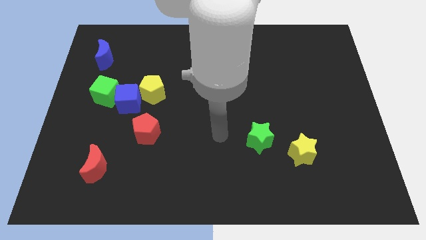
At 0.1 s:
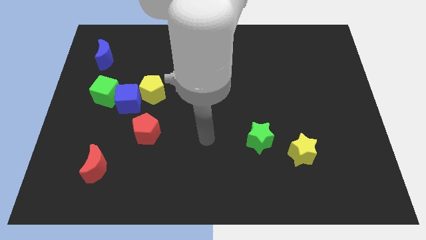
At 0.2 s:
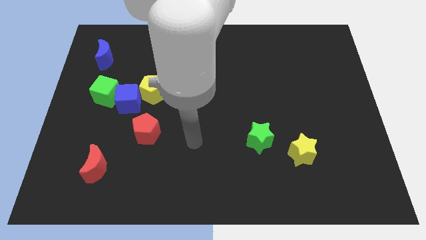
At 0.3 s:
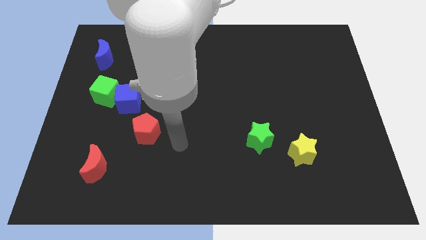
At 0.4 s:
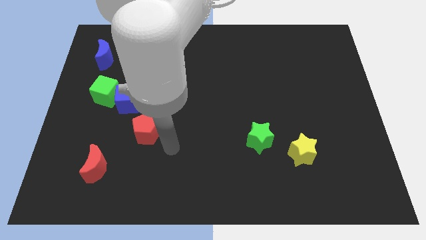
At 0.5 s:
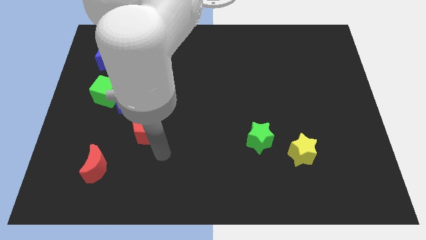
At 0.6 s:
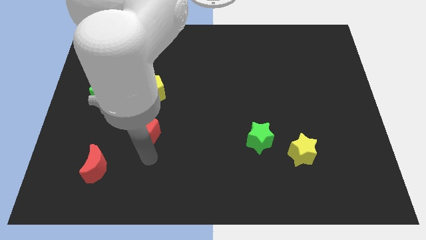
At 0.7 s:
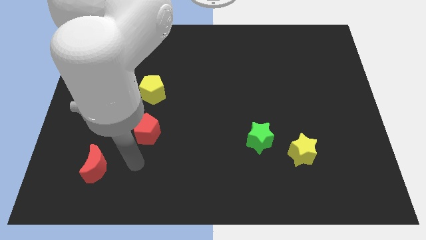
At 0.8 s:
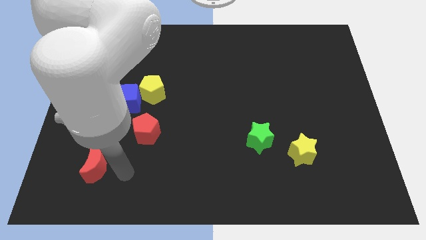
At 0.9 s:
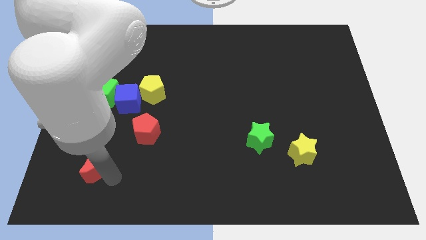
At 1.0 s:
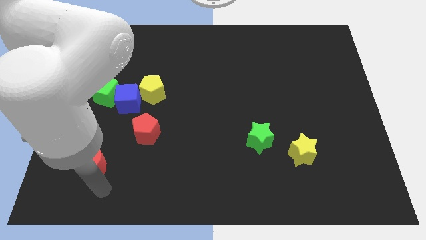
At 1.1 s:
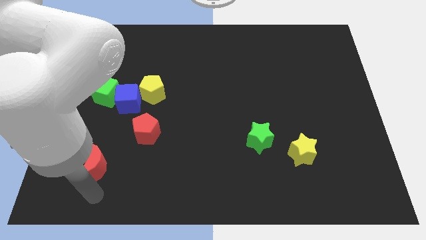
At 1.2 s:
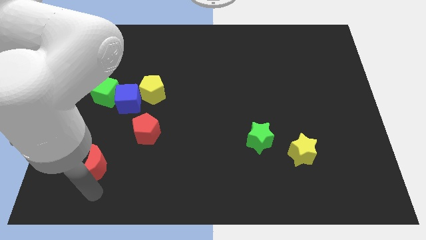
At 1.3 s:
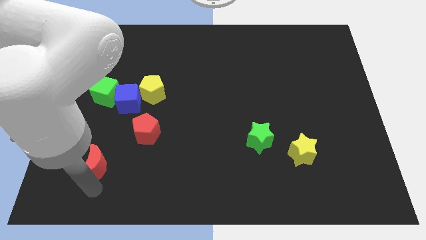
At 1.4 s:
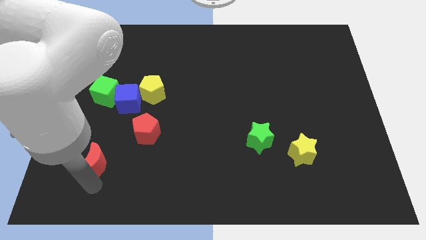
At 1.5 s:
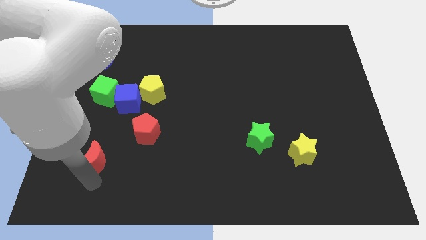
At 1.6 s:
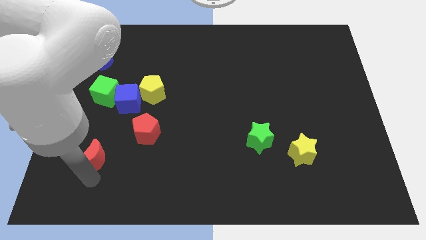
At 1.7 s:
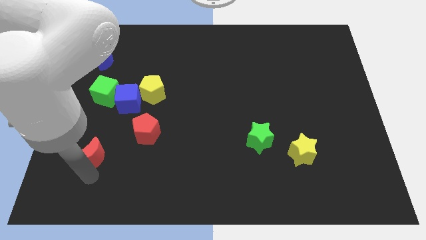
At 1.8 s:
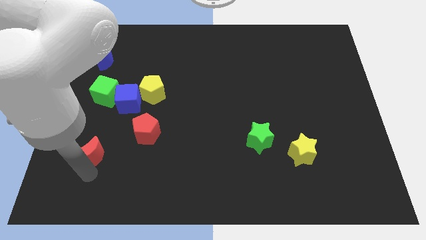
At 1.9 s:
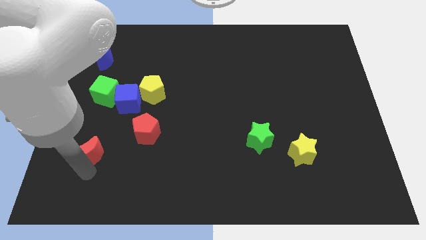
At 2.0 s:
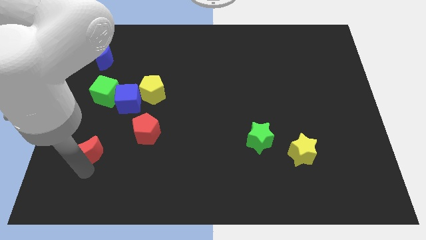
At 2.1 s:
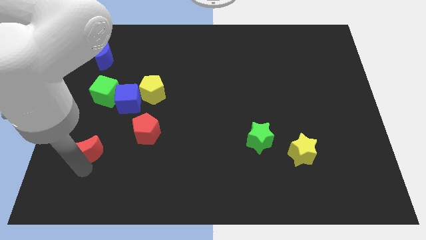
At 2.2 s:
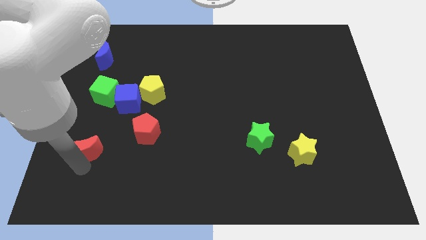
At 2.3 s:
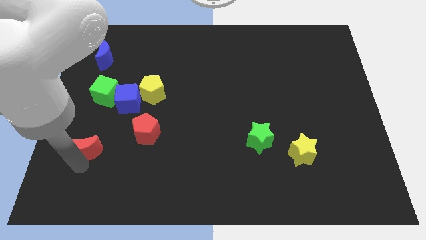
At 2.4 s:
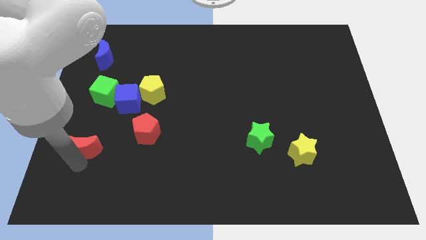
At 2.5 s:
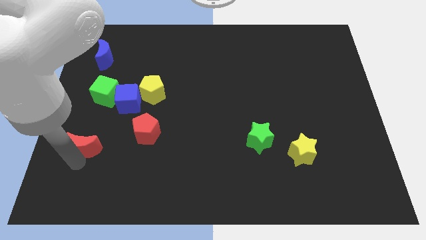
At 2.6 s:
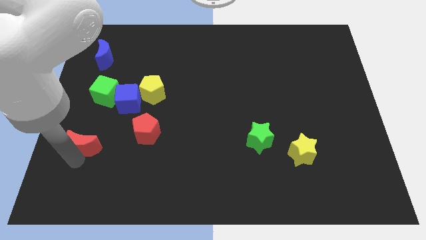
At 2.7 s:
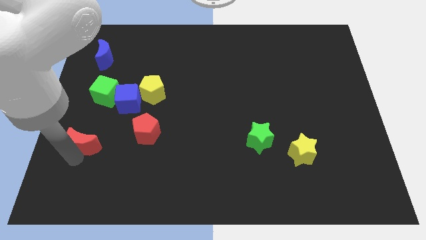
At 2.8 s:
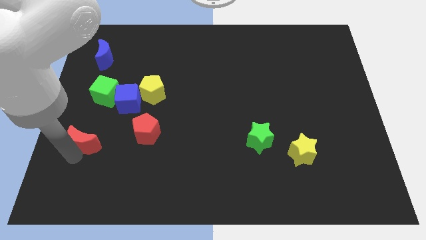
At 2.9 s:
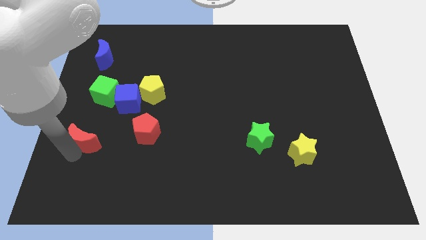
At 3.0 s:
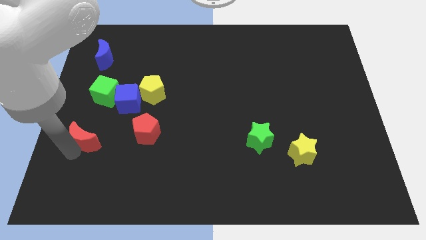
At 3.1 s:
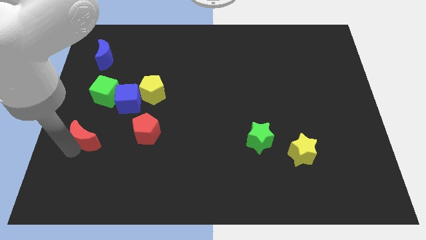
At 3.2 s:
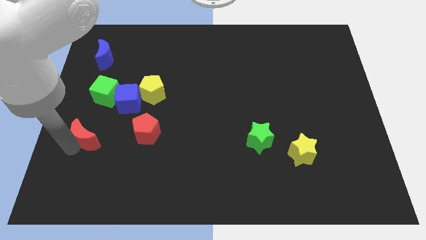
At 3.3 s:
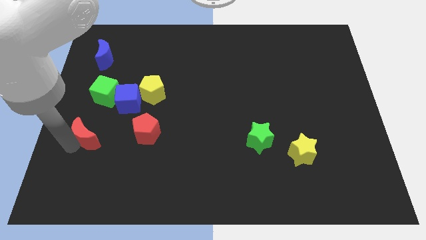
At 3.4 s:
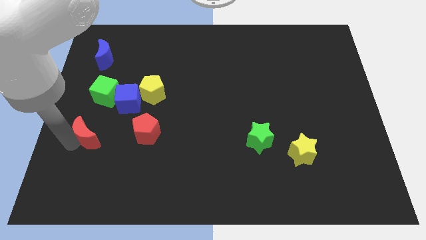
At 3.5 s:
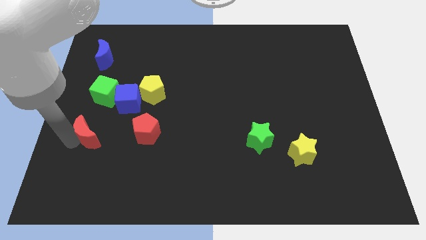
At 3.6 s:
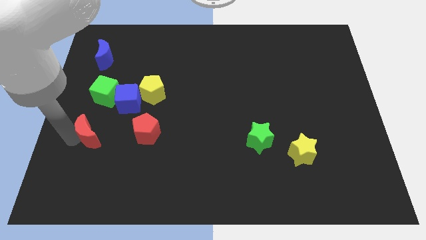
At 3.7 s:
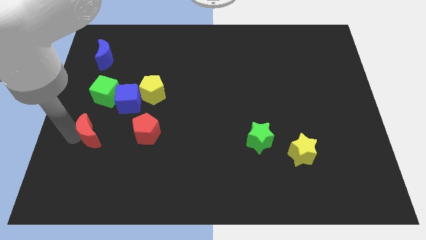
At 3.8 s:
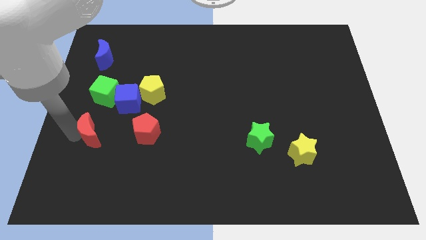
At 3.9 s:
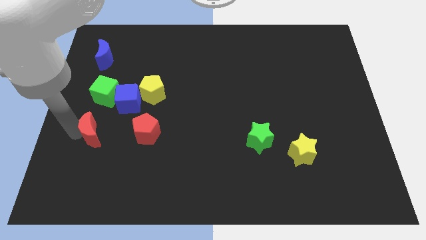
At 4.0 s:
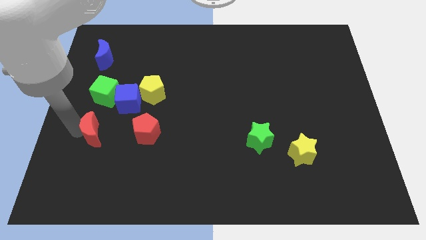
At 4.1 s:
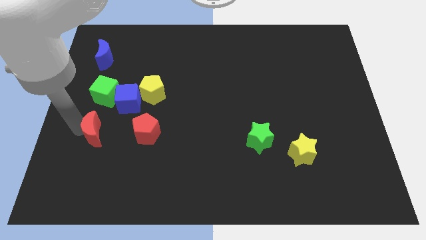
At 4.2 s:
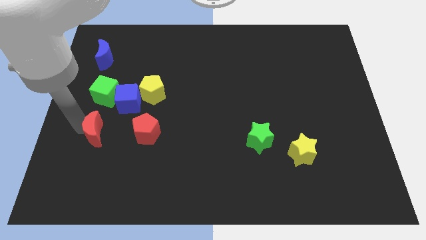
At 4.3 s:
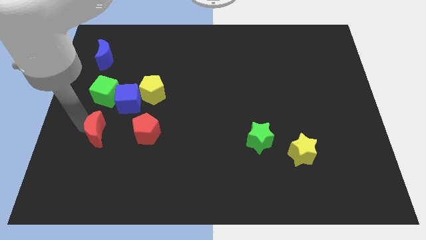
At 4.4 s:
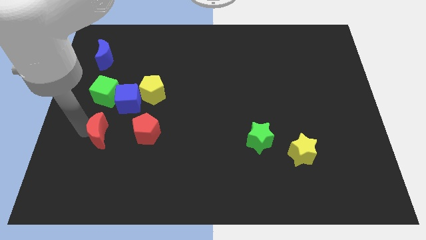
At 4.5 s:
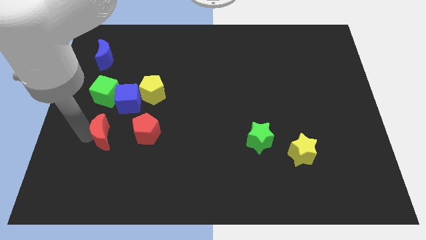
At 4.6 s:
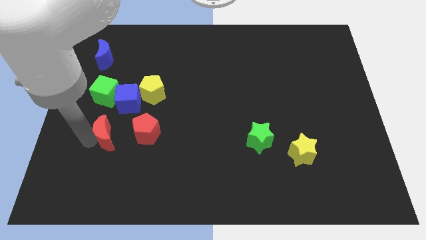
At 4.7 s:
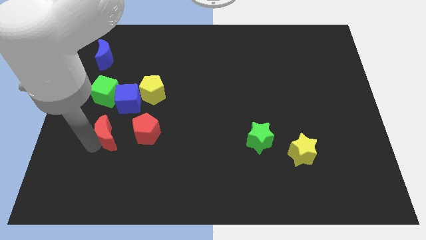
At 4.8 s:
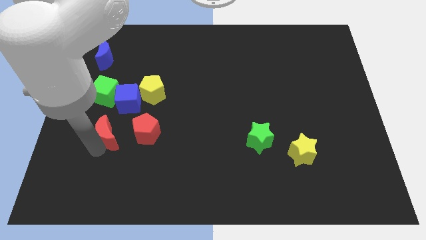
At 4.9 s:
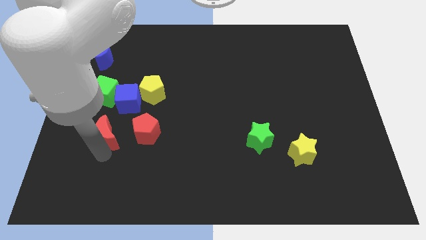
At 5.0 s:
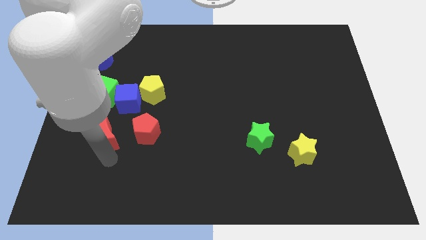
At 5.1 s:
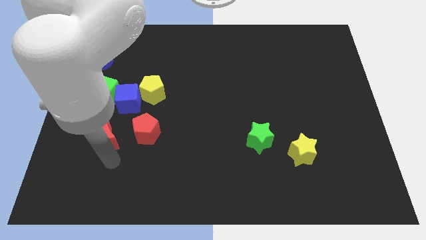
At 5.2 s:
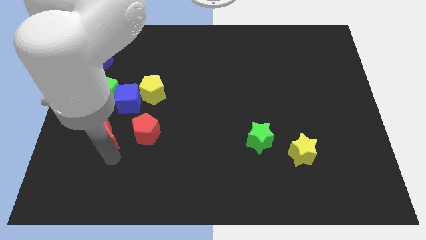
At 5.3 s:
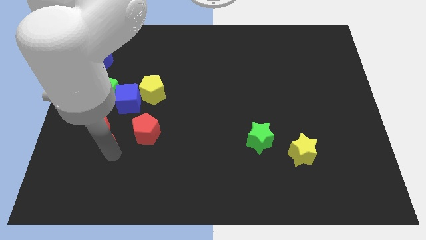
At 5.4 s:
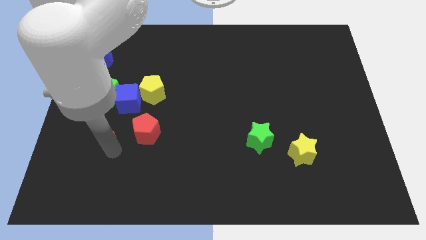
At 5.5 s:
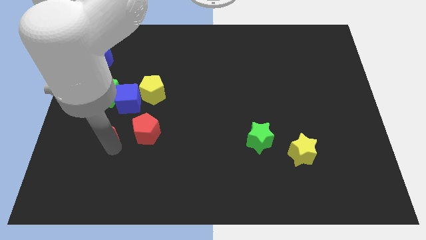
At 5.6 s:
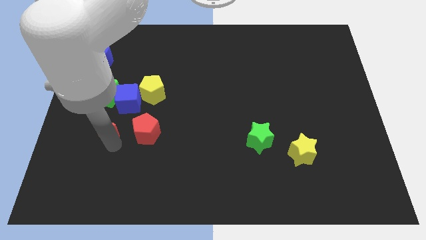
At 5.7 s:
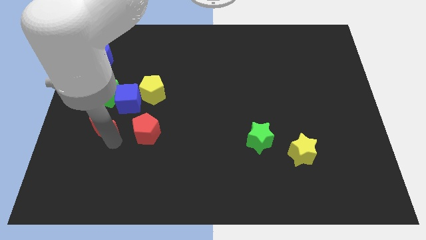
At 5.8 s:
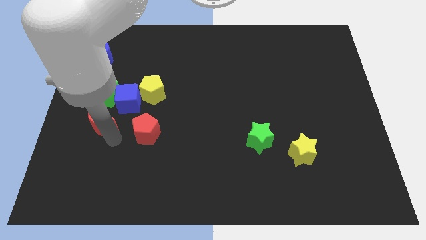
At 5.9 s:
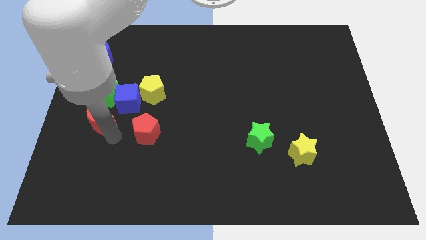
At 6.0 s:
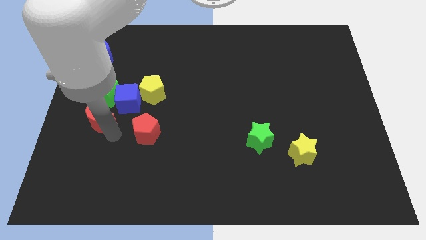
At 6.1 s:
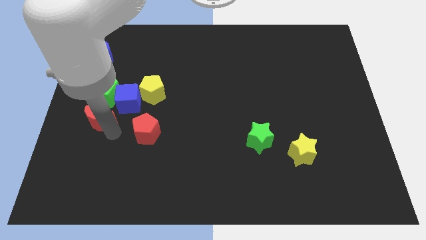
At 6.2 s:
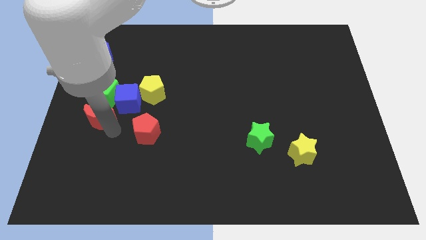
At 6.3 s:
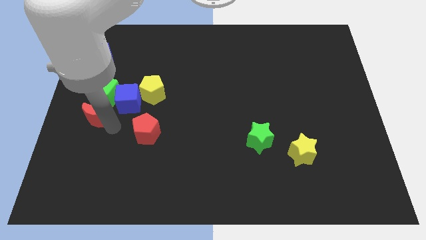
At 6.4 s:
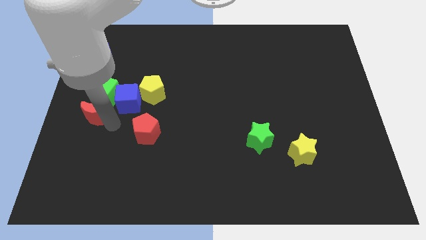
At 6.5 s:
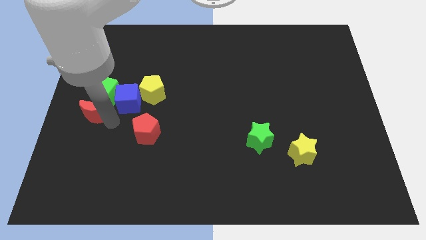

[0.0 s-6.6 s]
move the red moon to the green cube

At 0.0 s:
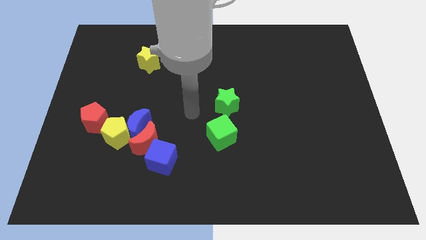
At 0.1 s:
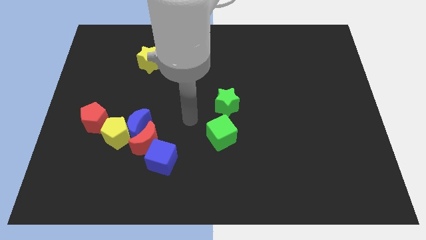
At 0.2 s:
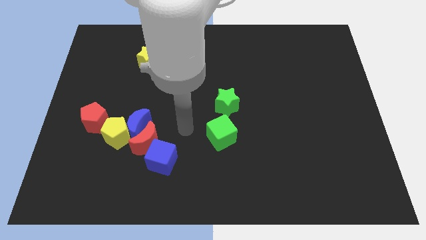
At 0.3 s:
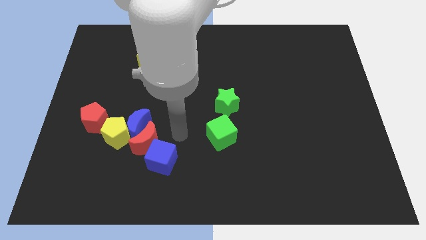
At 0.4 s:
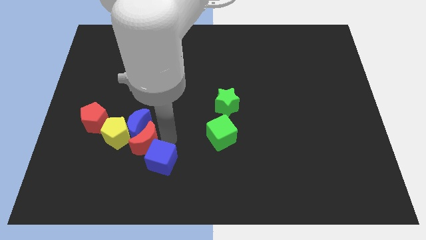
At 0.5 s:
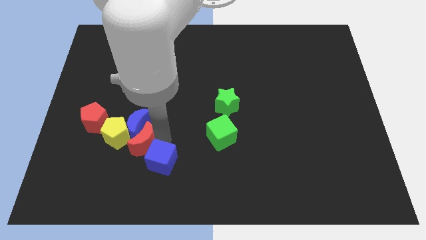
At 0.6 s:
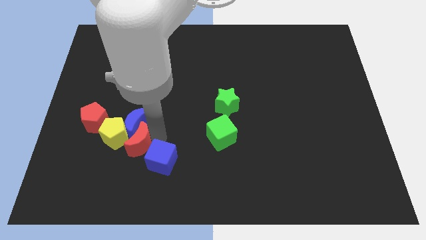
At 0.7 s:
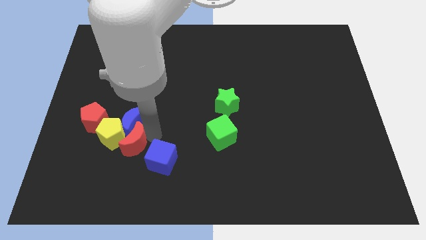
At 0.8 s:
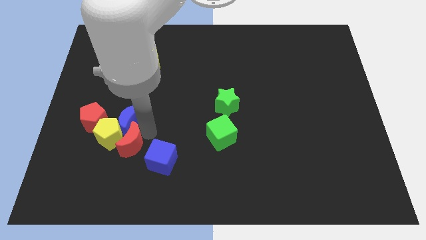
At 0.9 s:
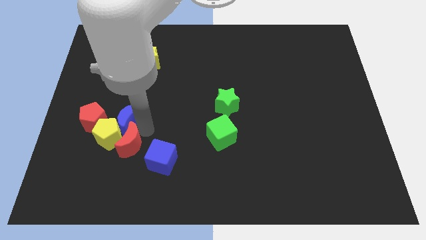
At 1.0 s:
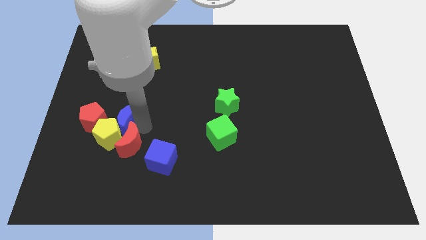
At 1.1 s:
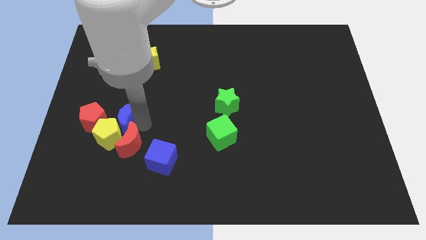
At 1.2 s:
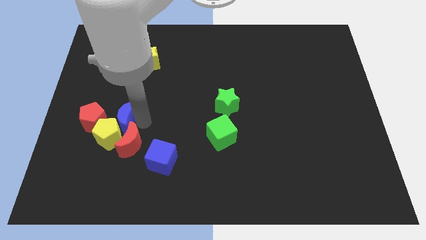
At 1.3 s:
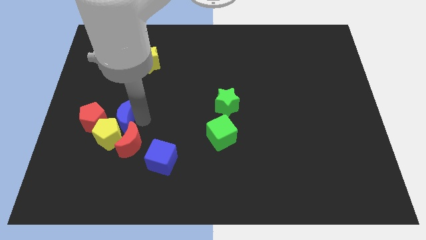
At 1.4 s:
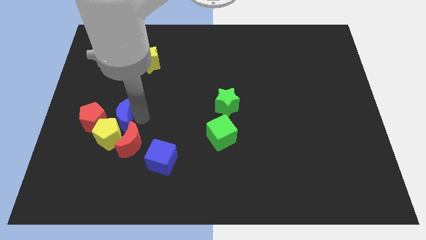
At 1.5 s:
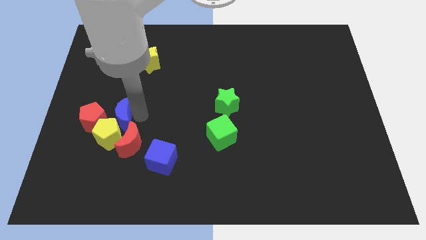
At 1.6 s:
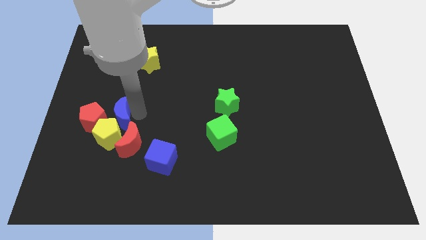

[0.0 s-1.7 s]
move the blue moon to the red pentagon
